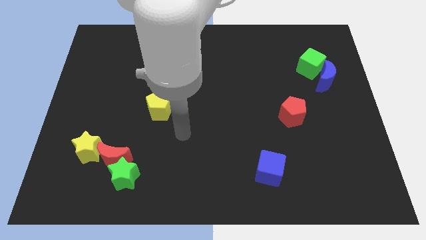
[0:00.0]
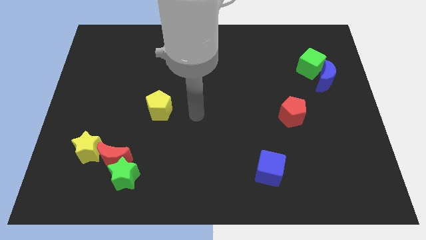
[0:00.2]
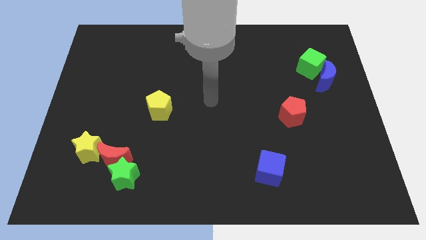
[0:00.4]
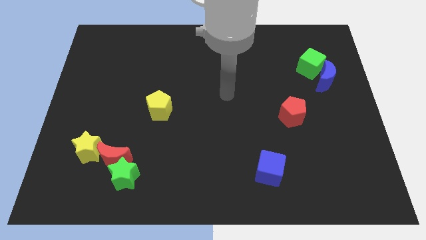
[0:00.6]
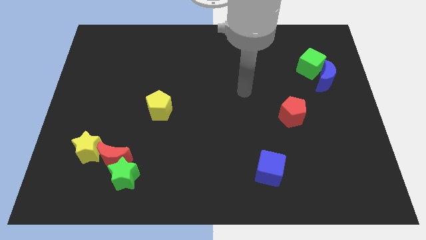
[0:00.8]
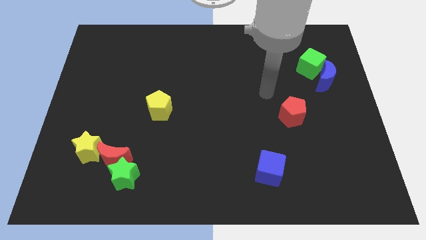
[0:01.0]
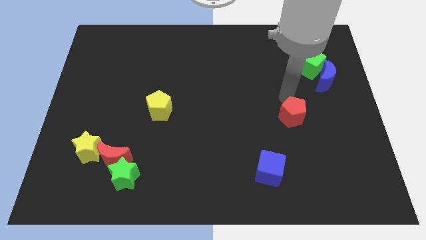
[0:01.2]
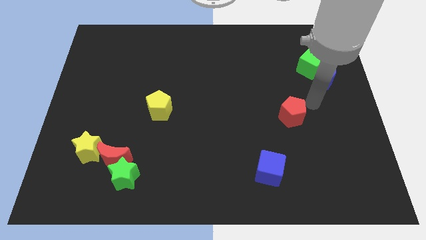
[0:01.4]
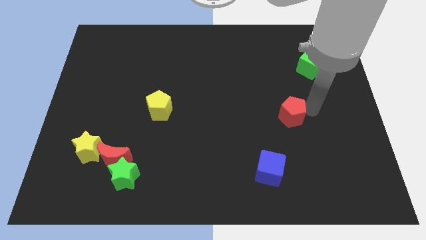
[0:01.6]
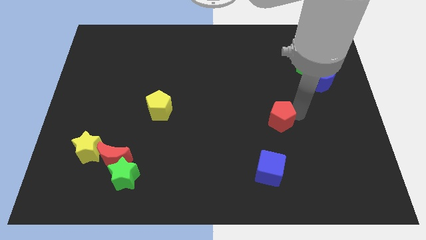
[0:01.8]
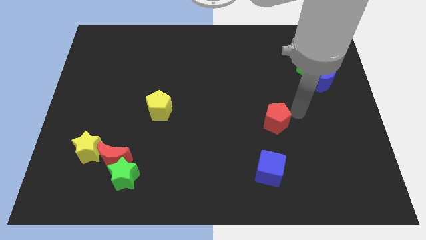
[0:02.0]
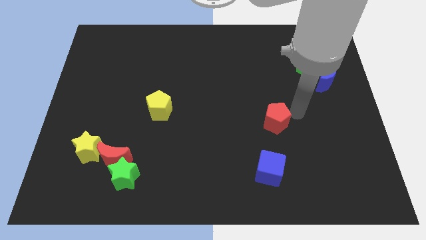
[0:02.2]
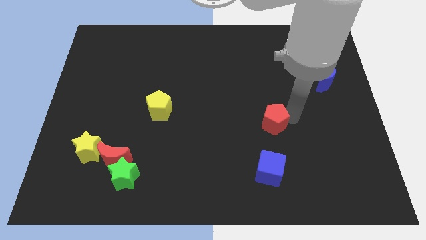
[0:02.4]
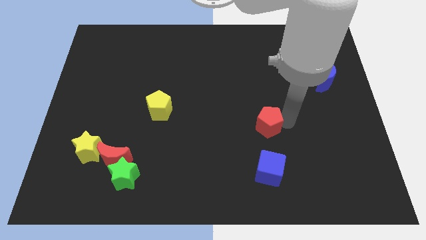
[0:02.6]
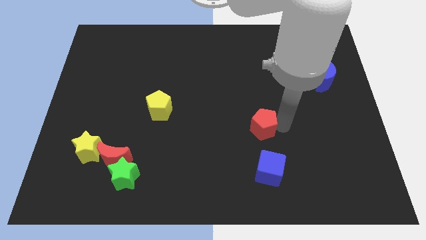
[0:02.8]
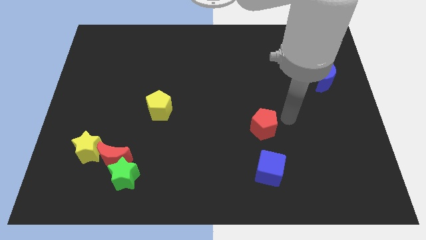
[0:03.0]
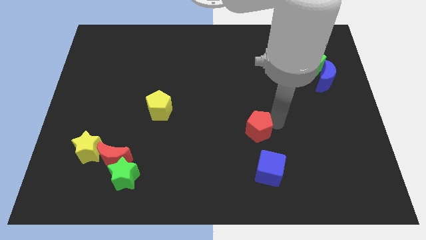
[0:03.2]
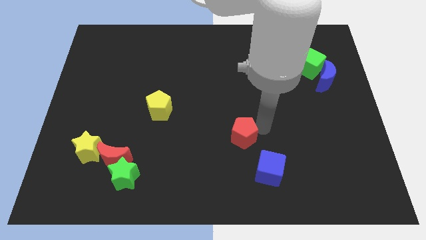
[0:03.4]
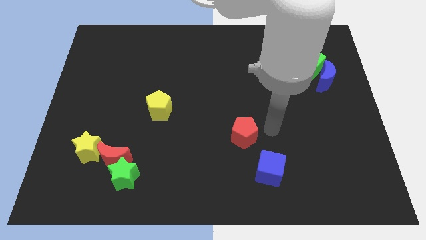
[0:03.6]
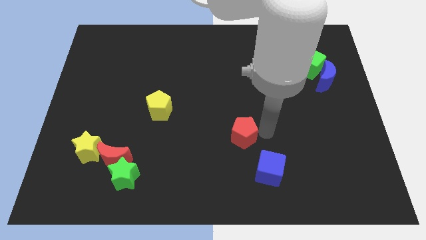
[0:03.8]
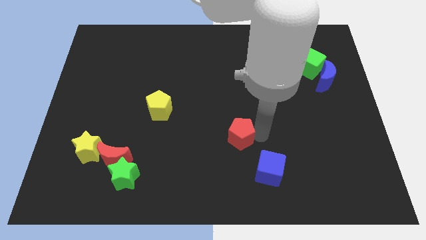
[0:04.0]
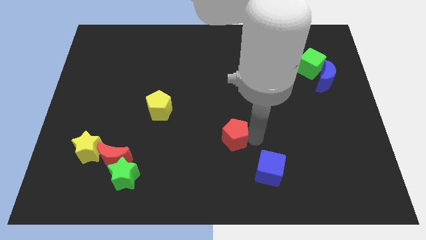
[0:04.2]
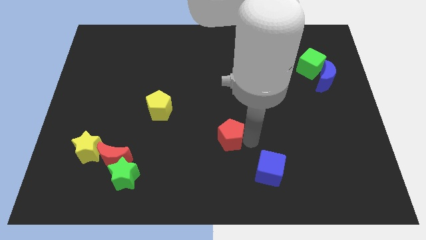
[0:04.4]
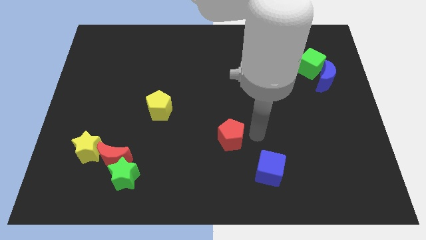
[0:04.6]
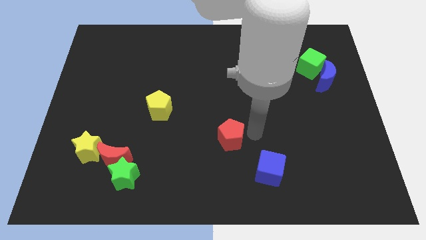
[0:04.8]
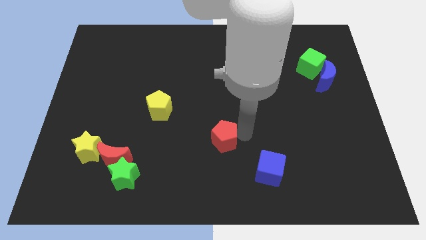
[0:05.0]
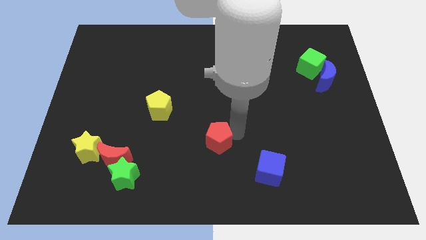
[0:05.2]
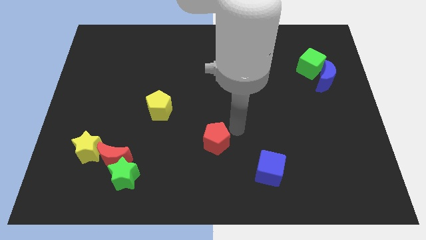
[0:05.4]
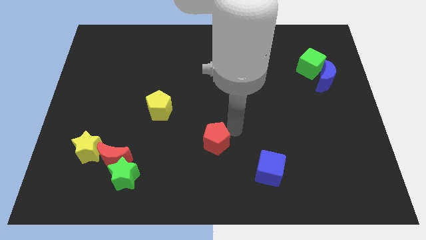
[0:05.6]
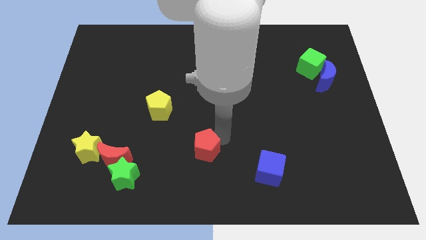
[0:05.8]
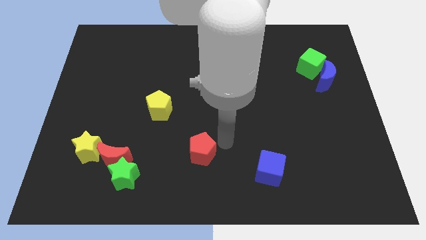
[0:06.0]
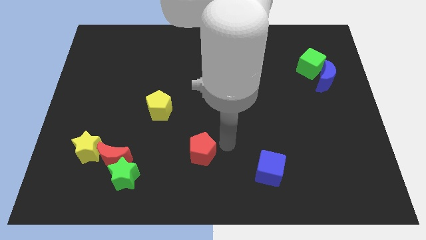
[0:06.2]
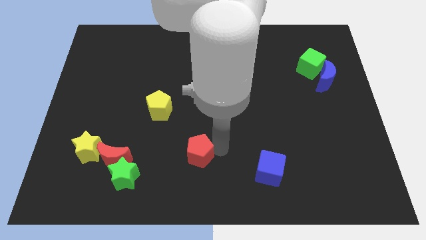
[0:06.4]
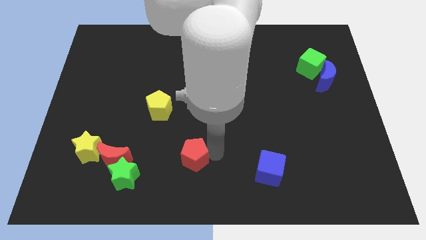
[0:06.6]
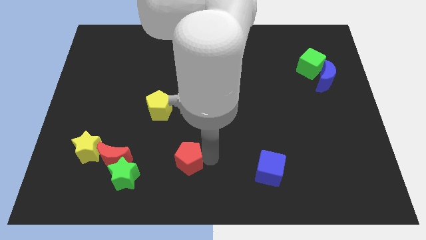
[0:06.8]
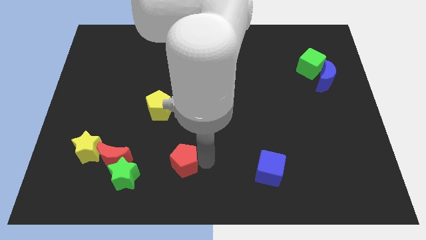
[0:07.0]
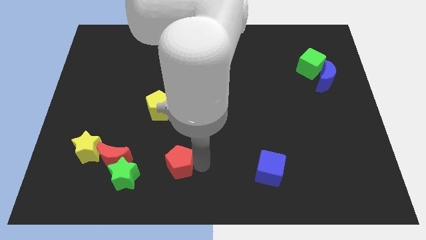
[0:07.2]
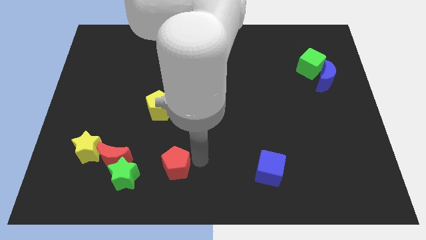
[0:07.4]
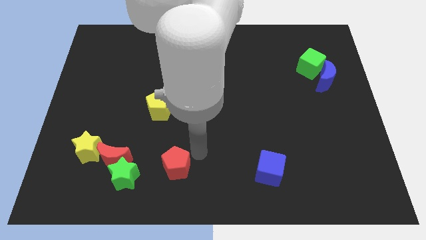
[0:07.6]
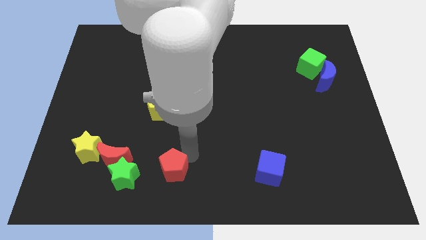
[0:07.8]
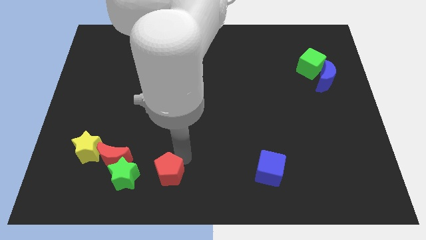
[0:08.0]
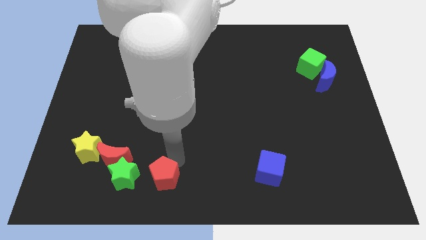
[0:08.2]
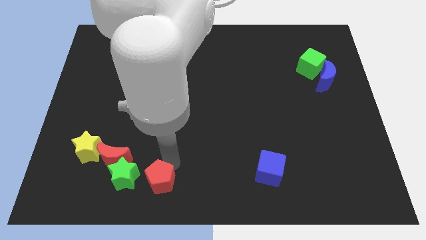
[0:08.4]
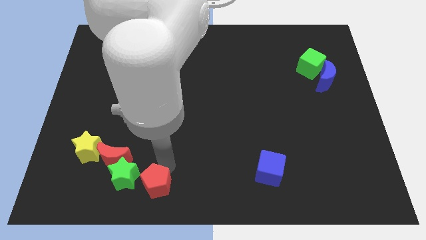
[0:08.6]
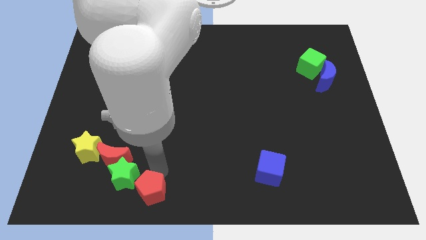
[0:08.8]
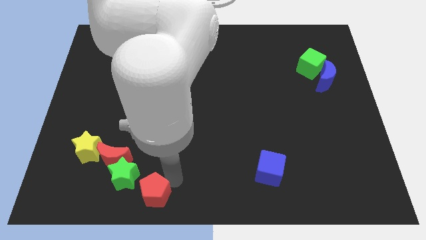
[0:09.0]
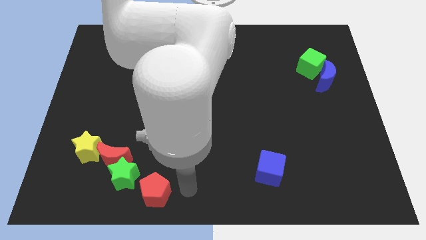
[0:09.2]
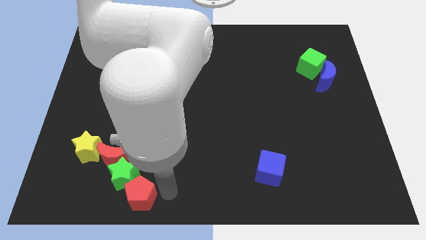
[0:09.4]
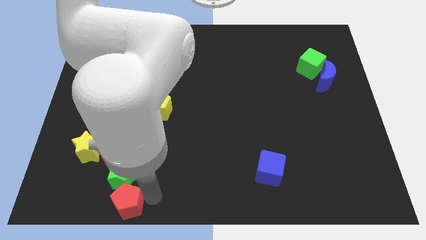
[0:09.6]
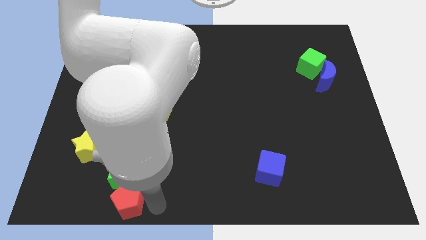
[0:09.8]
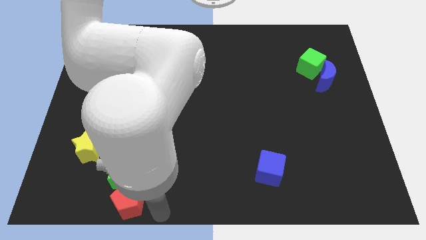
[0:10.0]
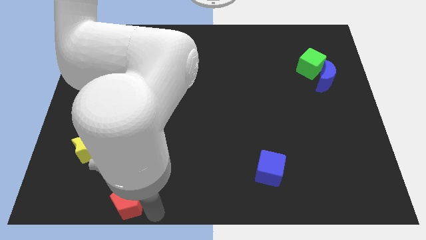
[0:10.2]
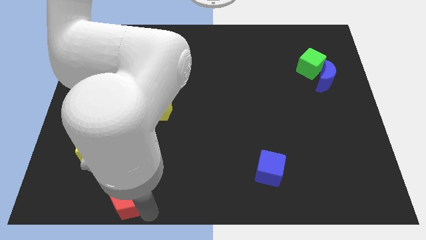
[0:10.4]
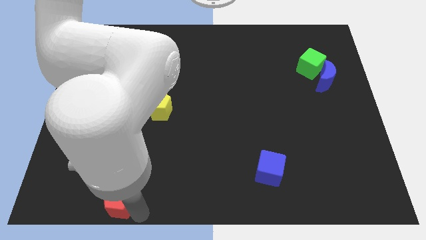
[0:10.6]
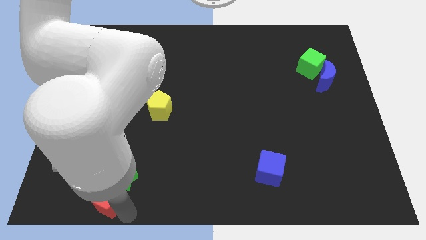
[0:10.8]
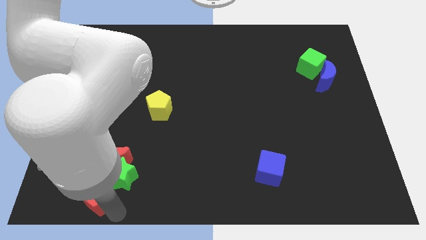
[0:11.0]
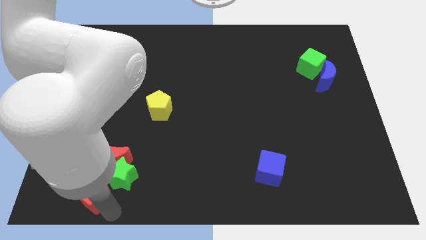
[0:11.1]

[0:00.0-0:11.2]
push the red pentagon just left of the green star

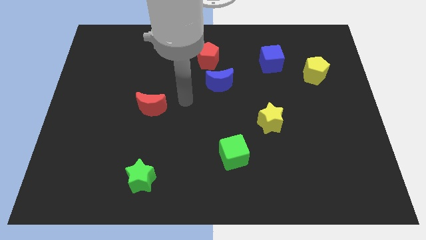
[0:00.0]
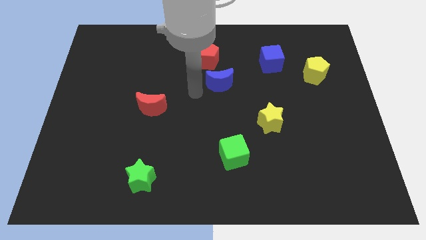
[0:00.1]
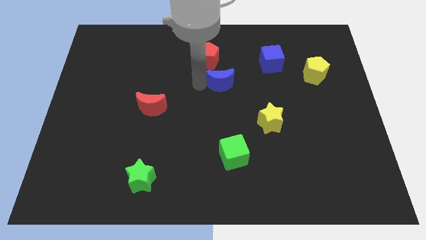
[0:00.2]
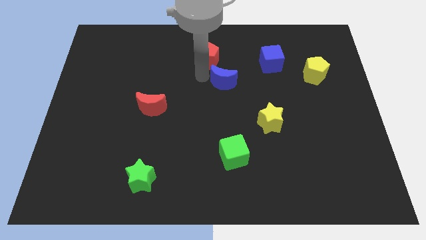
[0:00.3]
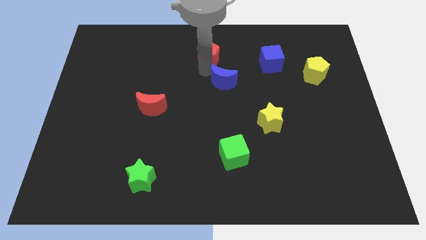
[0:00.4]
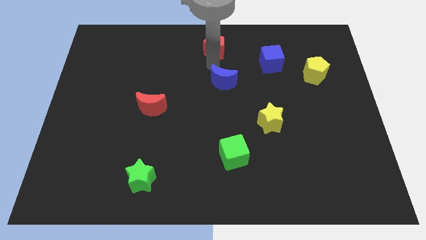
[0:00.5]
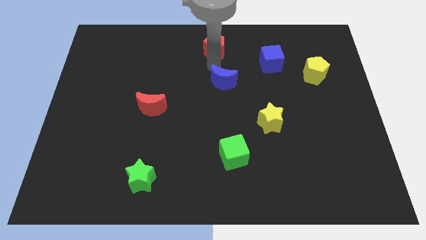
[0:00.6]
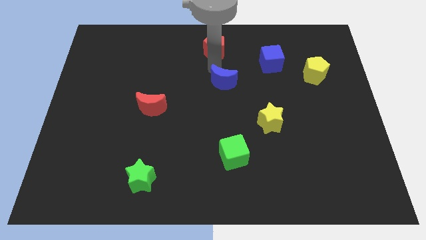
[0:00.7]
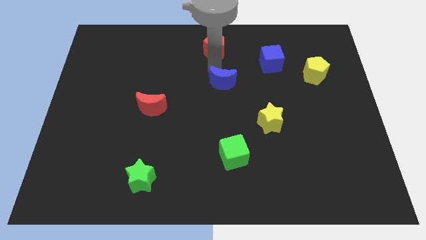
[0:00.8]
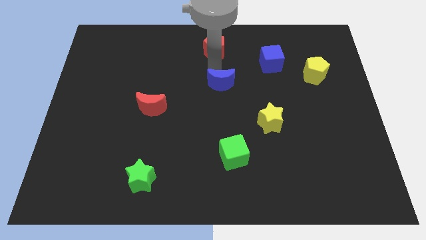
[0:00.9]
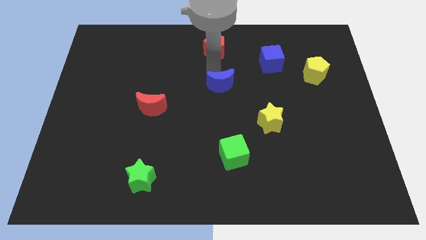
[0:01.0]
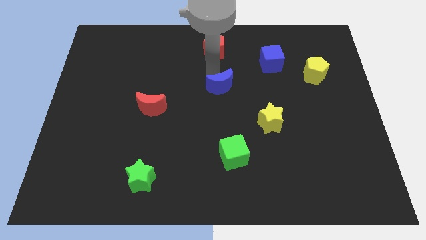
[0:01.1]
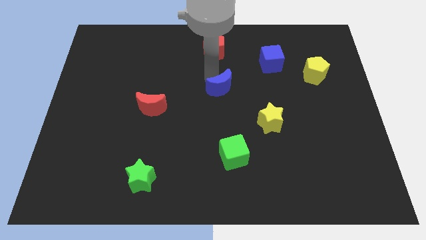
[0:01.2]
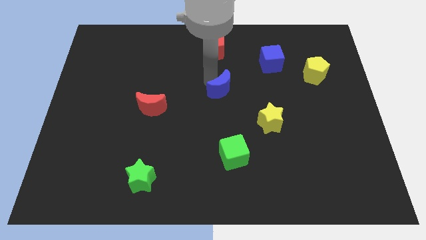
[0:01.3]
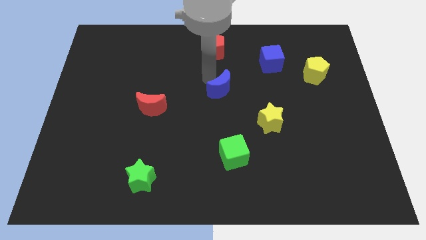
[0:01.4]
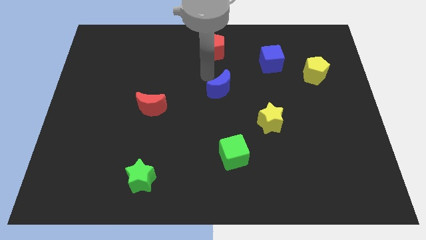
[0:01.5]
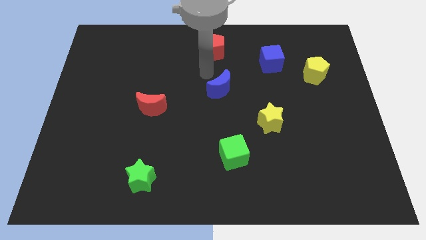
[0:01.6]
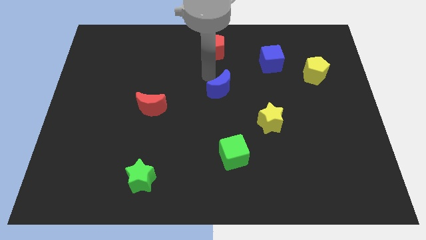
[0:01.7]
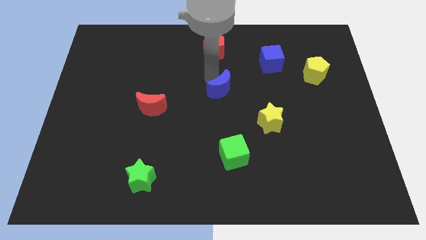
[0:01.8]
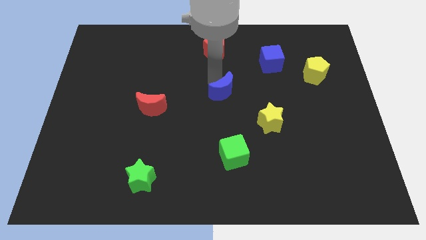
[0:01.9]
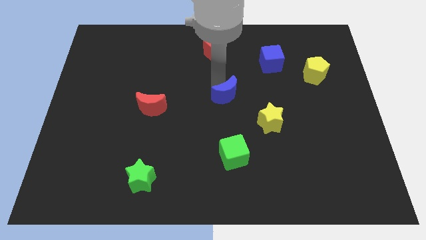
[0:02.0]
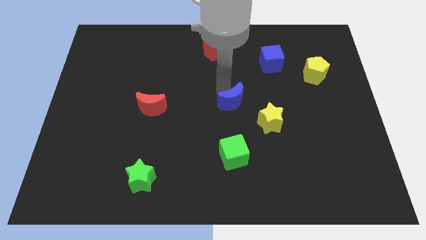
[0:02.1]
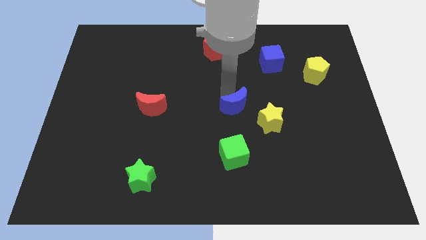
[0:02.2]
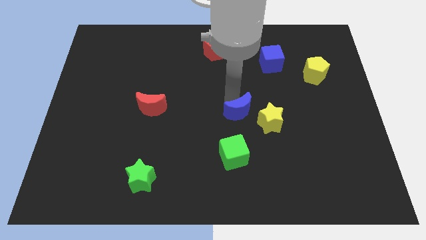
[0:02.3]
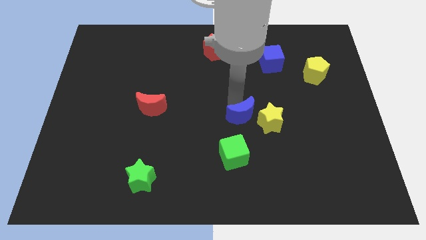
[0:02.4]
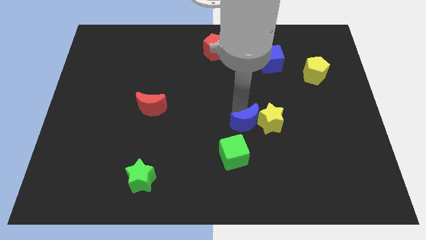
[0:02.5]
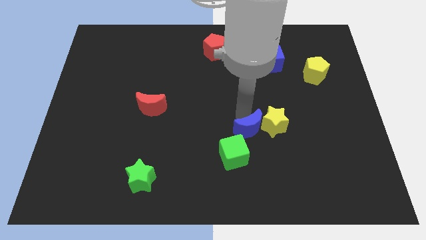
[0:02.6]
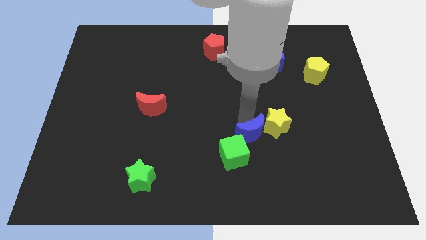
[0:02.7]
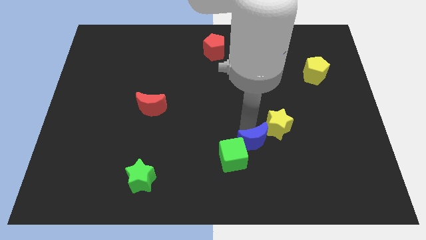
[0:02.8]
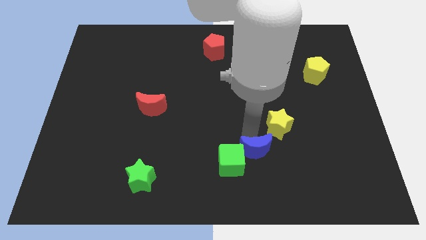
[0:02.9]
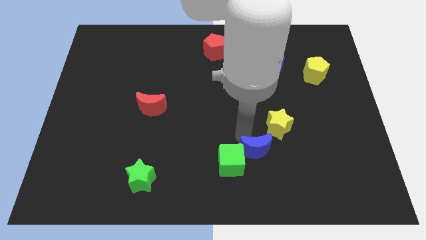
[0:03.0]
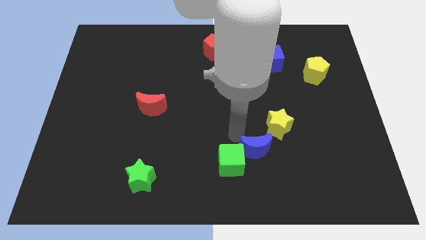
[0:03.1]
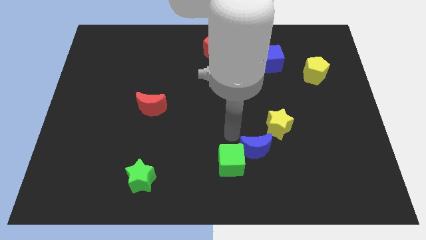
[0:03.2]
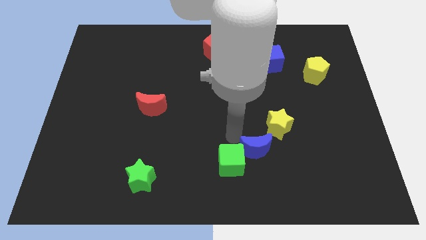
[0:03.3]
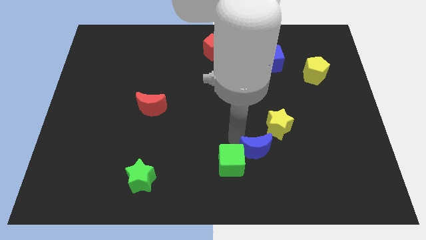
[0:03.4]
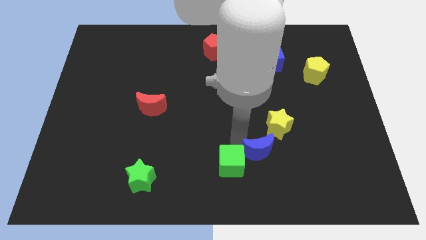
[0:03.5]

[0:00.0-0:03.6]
move the blue moon below the yellow star
